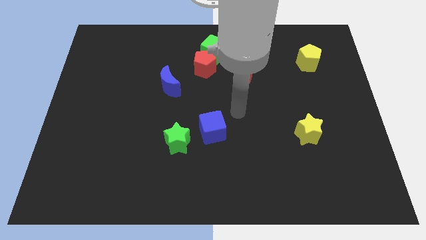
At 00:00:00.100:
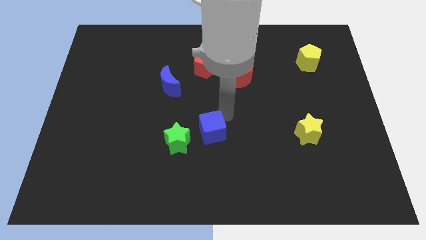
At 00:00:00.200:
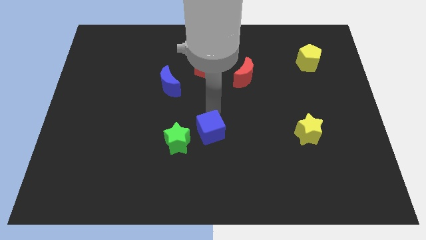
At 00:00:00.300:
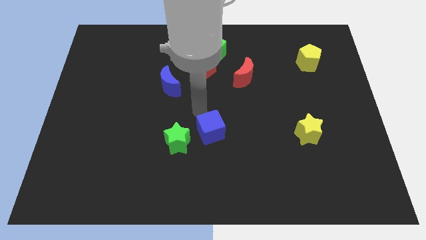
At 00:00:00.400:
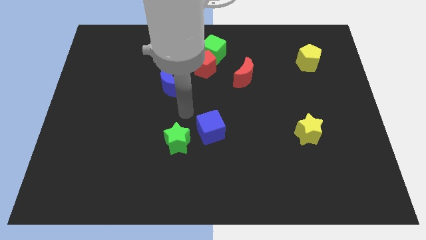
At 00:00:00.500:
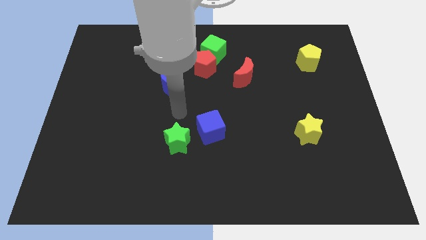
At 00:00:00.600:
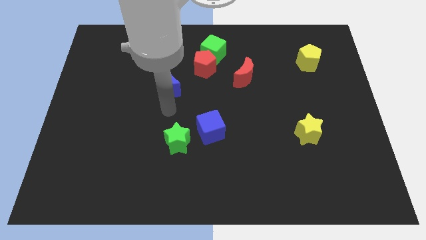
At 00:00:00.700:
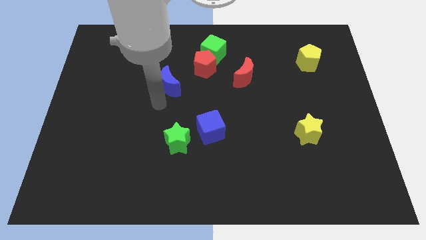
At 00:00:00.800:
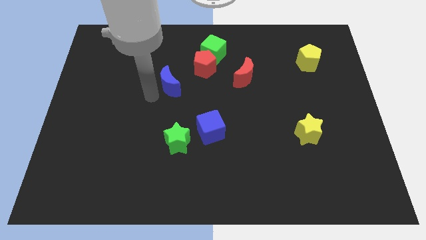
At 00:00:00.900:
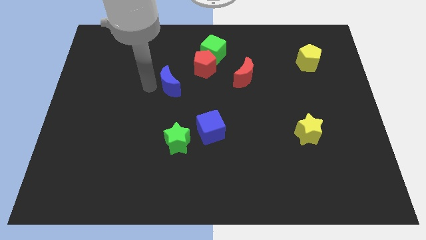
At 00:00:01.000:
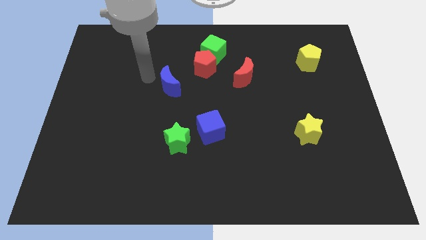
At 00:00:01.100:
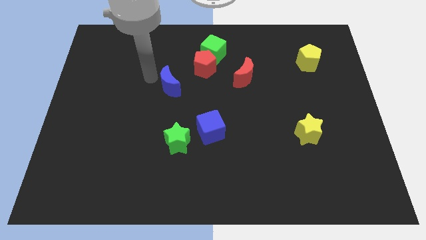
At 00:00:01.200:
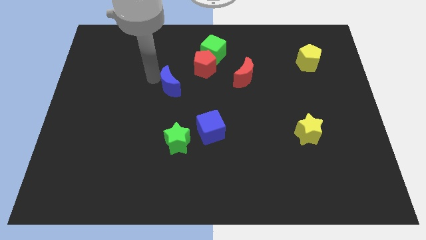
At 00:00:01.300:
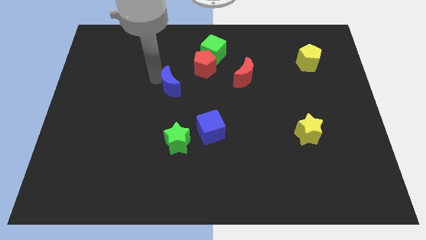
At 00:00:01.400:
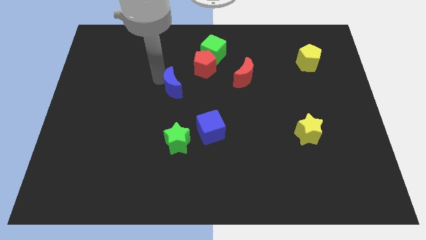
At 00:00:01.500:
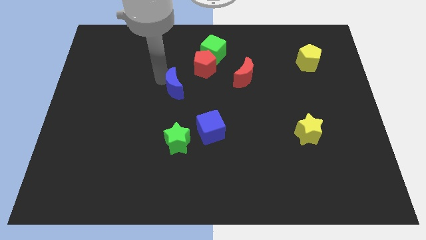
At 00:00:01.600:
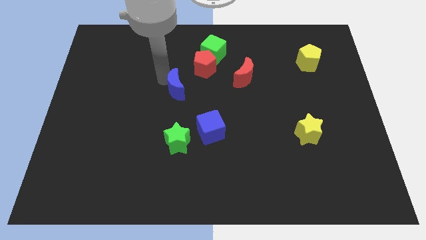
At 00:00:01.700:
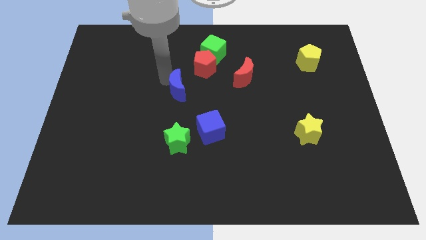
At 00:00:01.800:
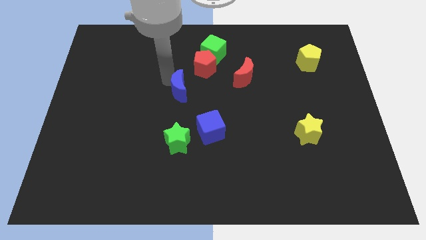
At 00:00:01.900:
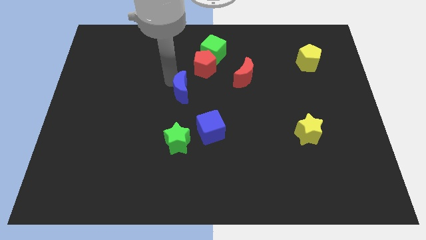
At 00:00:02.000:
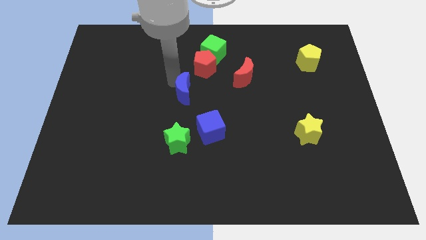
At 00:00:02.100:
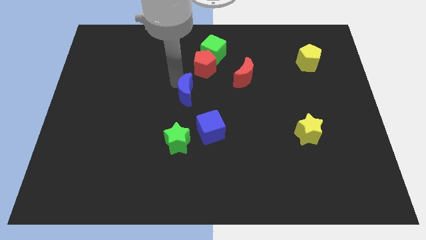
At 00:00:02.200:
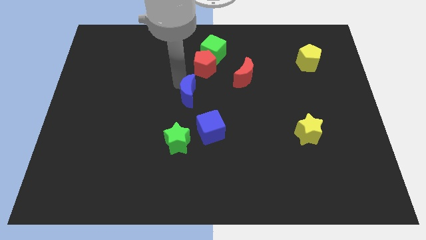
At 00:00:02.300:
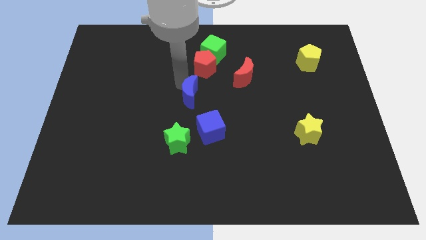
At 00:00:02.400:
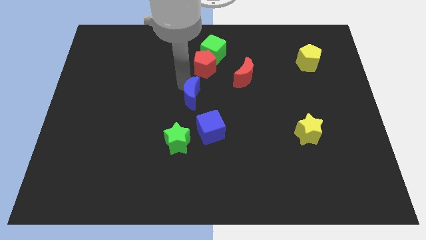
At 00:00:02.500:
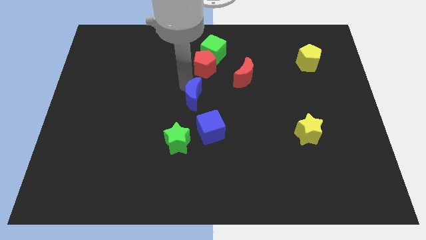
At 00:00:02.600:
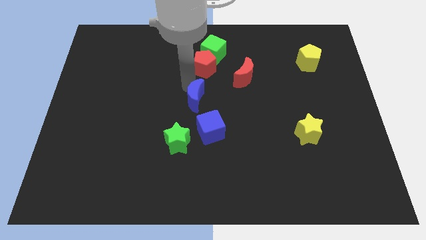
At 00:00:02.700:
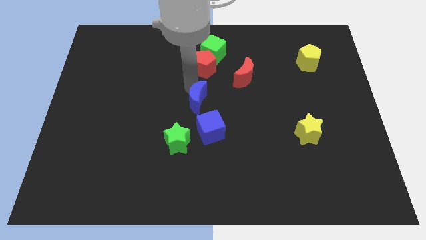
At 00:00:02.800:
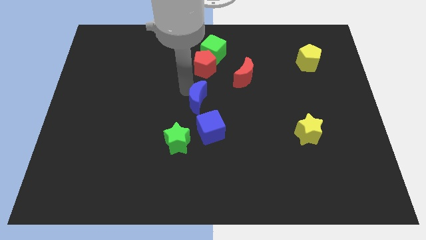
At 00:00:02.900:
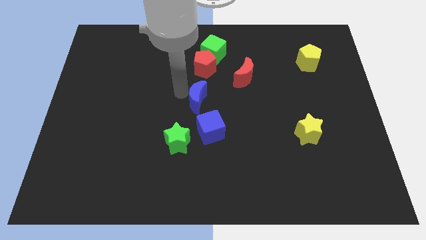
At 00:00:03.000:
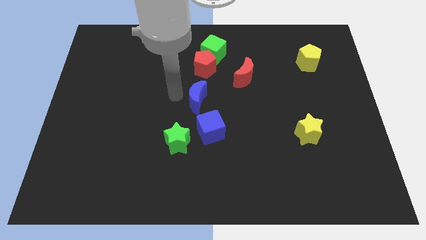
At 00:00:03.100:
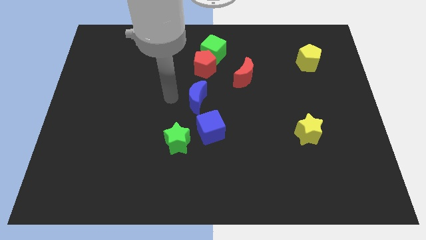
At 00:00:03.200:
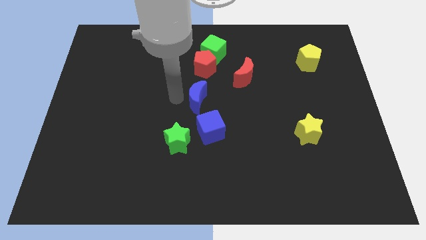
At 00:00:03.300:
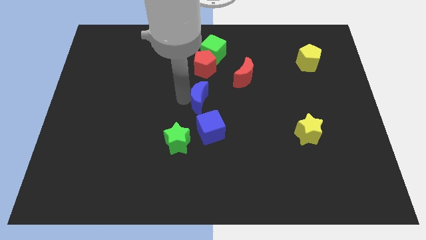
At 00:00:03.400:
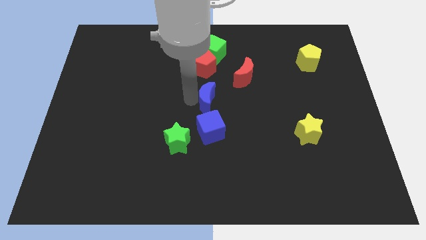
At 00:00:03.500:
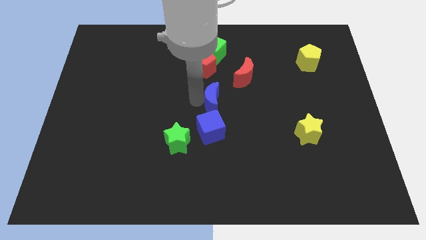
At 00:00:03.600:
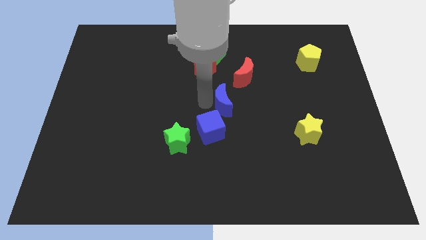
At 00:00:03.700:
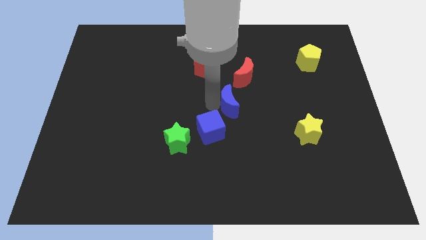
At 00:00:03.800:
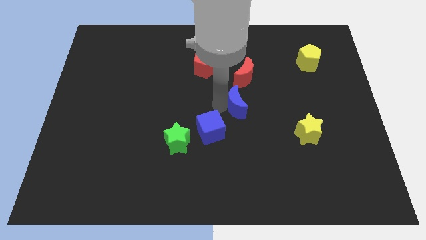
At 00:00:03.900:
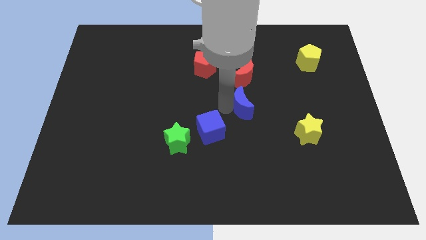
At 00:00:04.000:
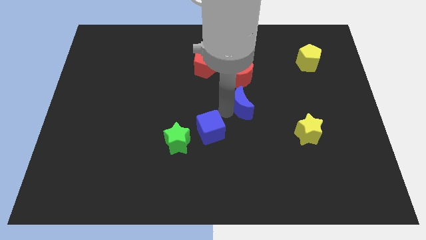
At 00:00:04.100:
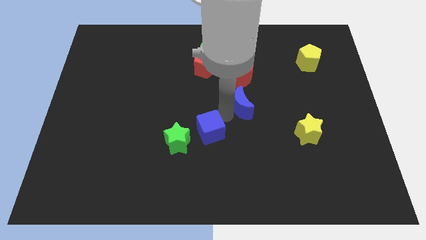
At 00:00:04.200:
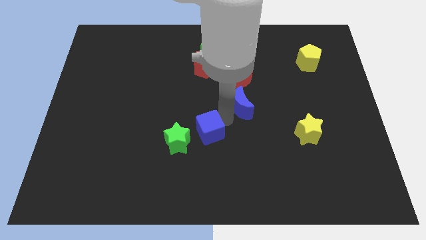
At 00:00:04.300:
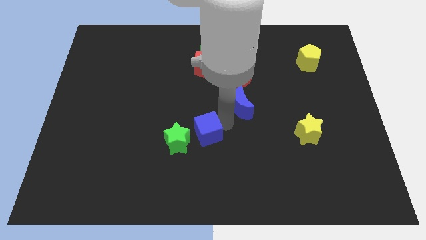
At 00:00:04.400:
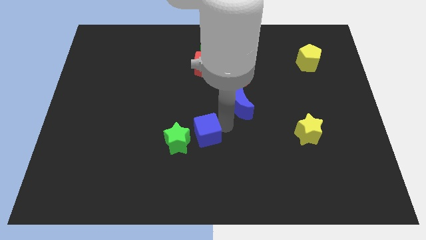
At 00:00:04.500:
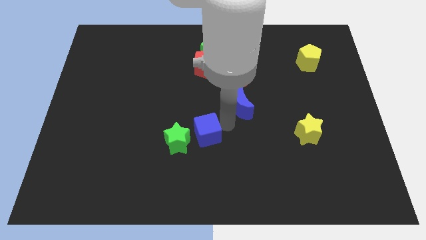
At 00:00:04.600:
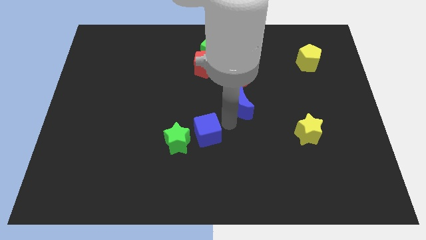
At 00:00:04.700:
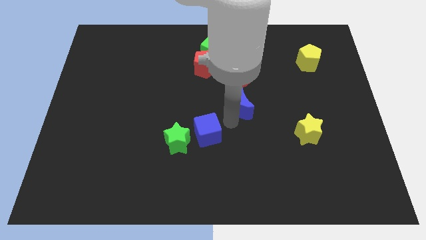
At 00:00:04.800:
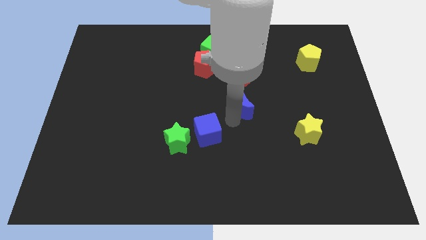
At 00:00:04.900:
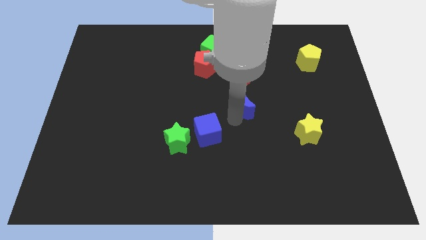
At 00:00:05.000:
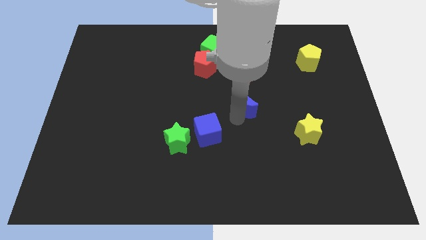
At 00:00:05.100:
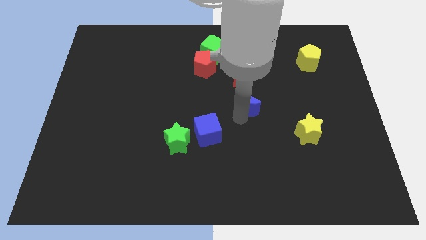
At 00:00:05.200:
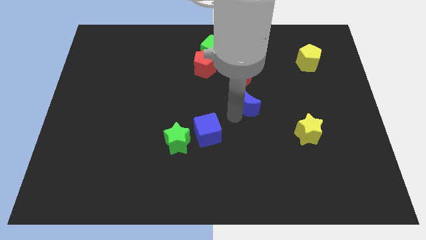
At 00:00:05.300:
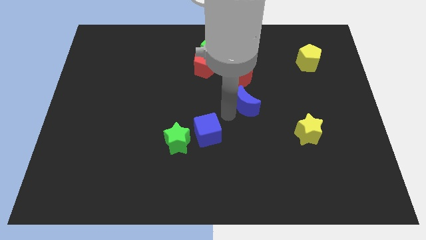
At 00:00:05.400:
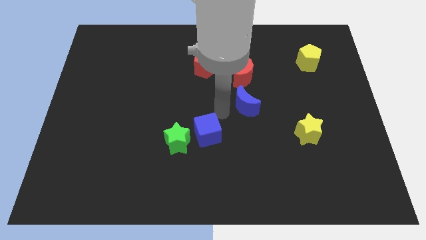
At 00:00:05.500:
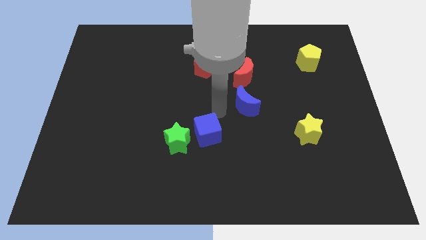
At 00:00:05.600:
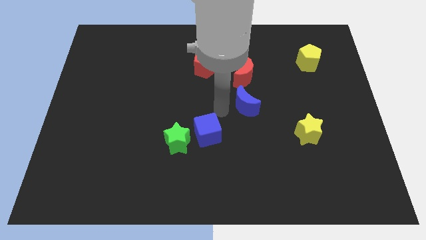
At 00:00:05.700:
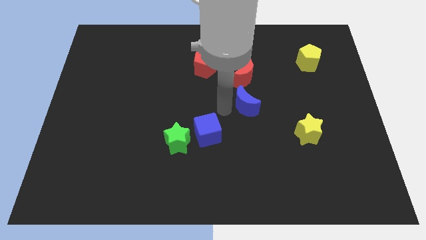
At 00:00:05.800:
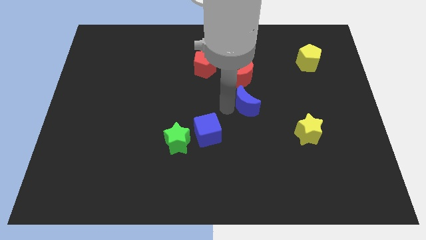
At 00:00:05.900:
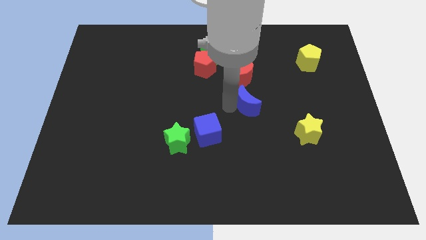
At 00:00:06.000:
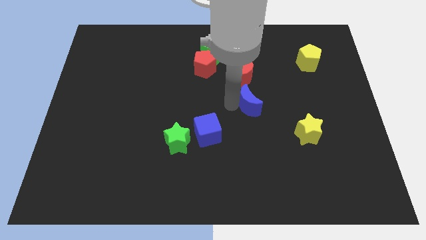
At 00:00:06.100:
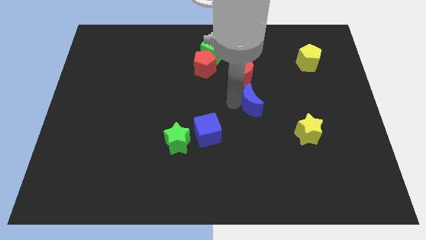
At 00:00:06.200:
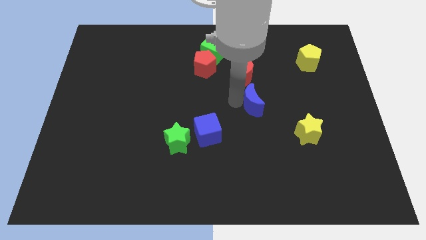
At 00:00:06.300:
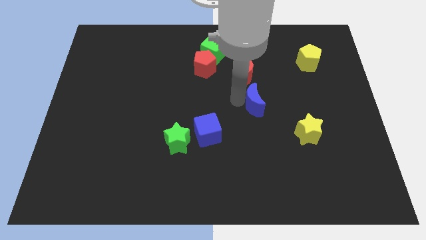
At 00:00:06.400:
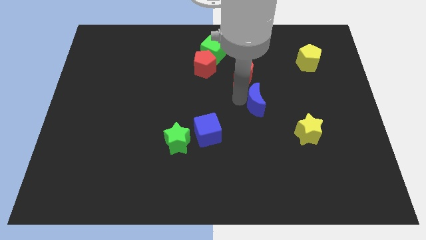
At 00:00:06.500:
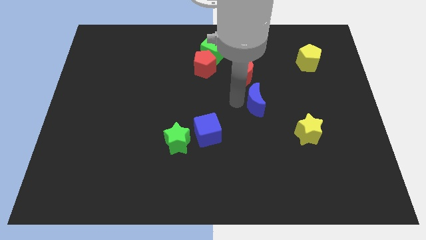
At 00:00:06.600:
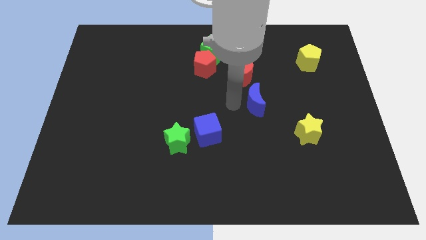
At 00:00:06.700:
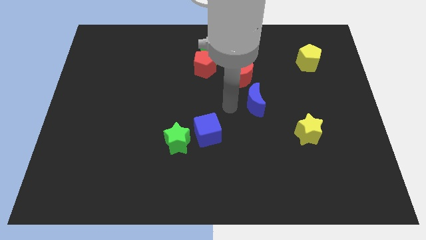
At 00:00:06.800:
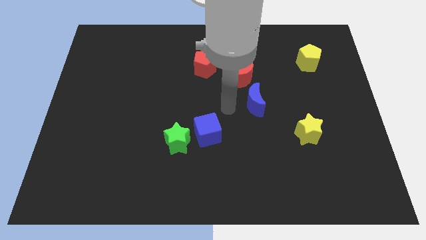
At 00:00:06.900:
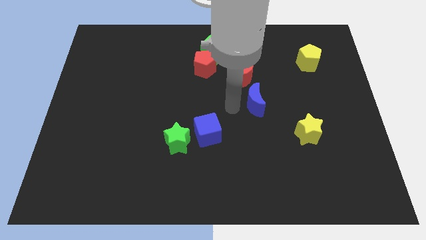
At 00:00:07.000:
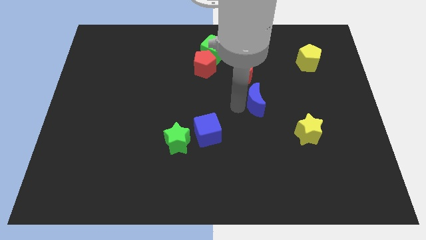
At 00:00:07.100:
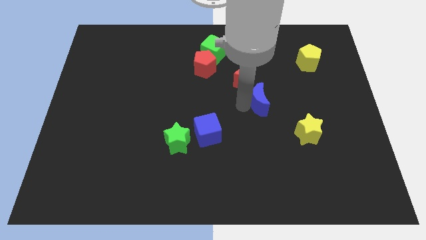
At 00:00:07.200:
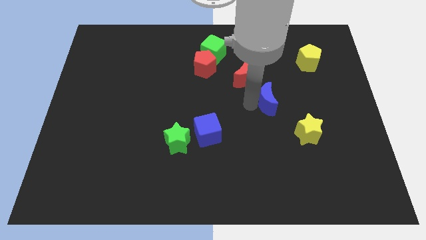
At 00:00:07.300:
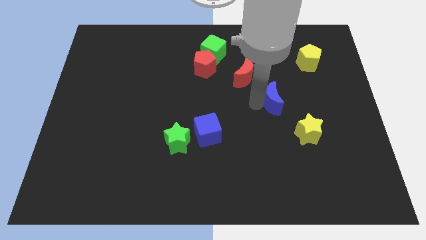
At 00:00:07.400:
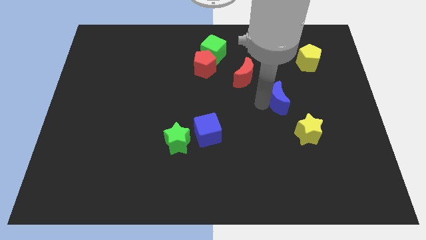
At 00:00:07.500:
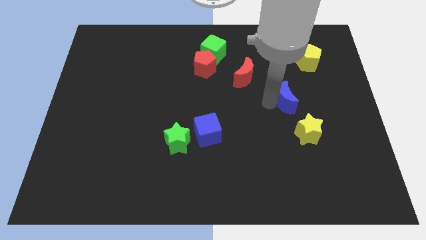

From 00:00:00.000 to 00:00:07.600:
put the blue moon above the yellow star
